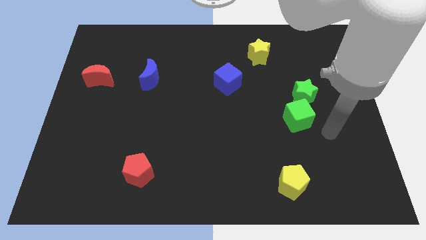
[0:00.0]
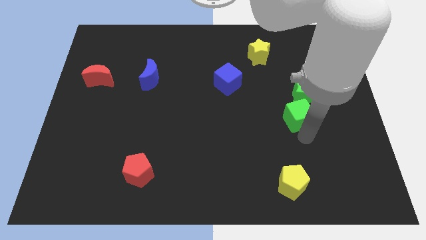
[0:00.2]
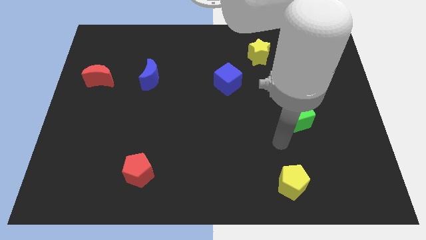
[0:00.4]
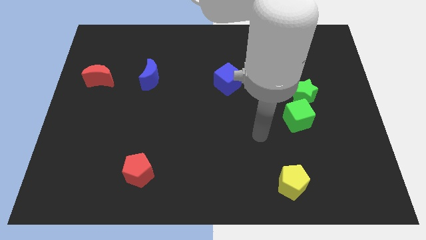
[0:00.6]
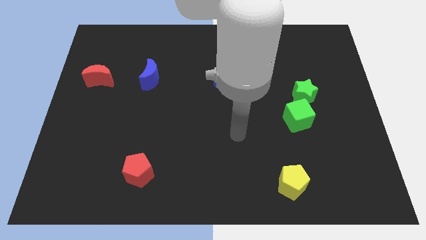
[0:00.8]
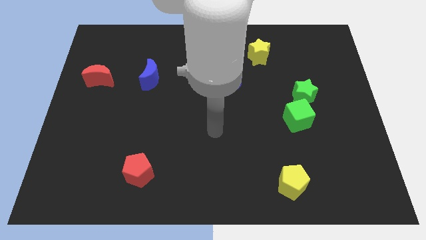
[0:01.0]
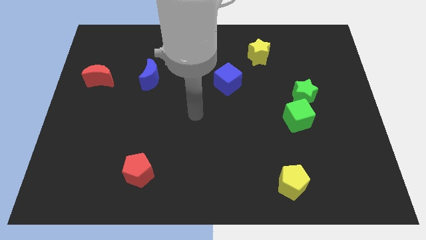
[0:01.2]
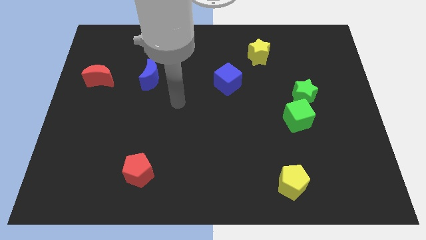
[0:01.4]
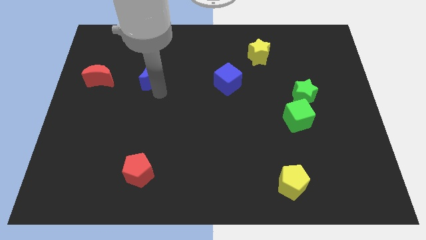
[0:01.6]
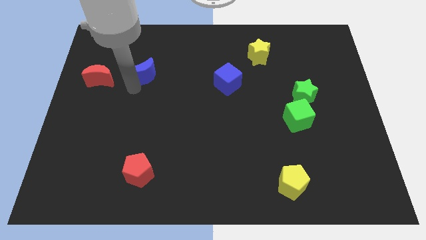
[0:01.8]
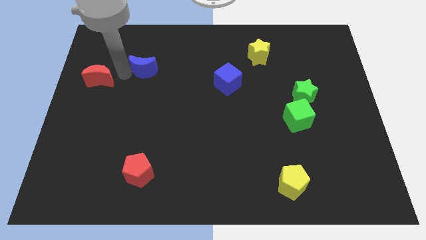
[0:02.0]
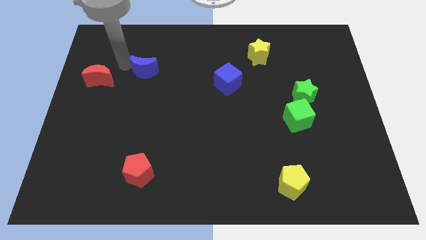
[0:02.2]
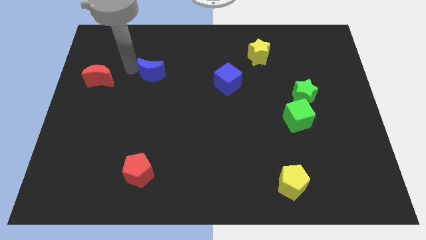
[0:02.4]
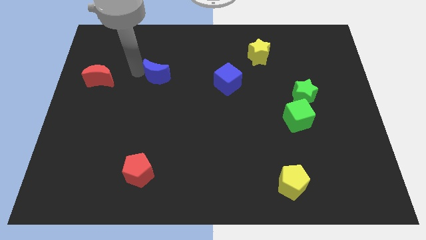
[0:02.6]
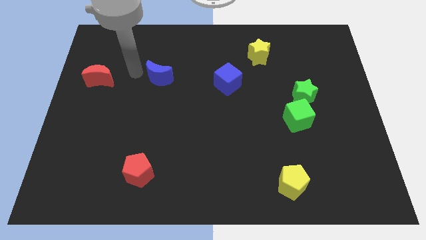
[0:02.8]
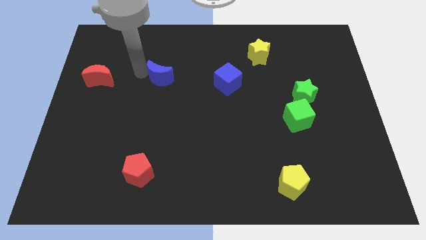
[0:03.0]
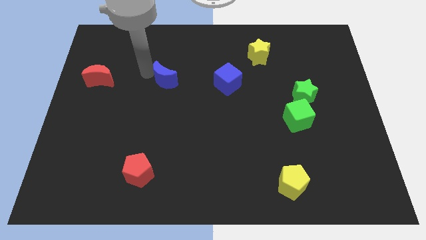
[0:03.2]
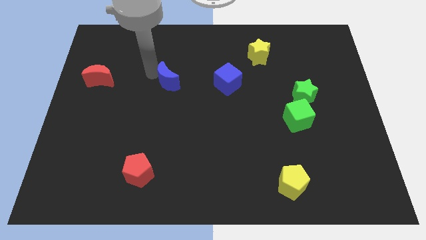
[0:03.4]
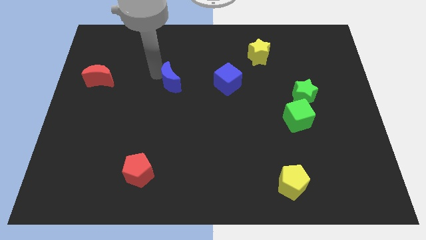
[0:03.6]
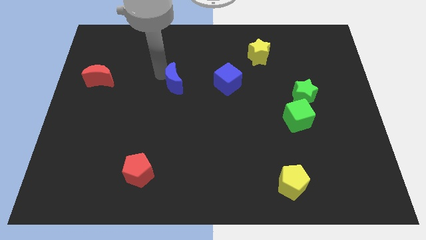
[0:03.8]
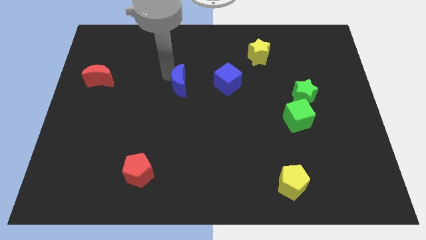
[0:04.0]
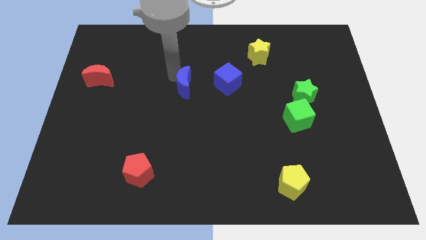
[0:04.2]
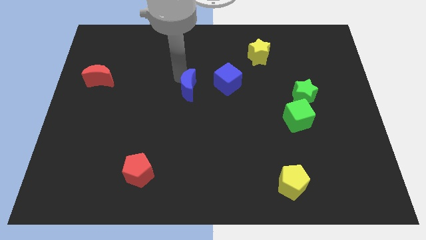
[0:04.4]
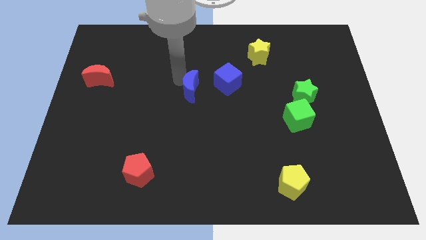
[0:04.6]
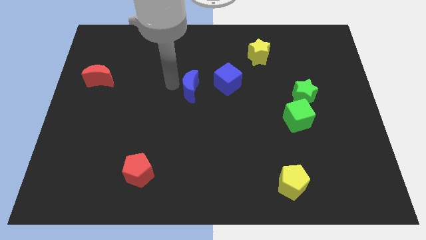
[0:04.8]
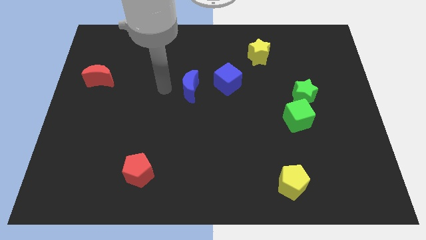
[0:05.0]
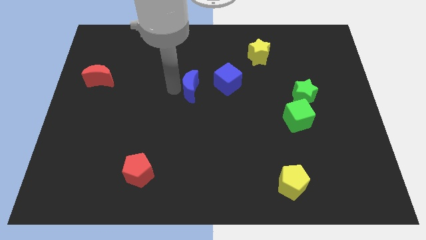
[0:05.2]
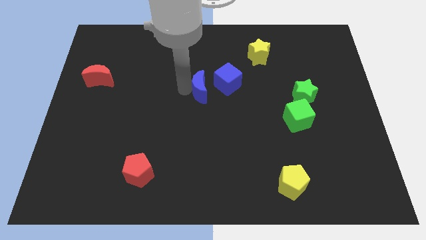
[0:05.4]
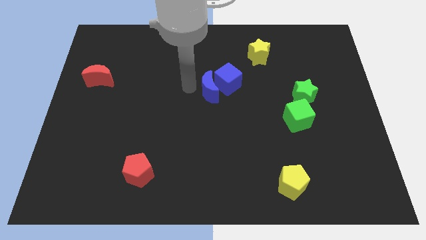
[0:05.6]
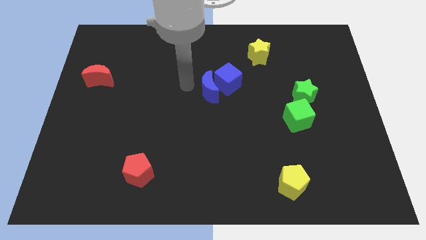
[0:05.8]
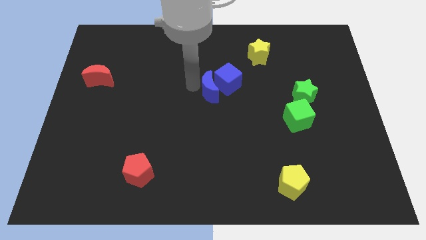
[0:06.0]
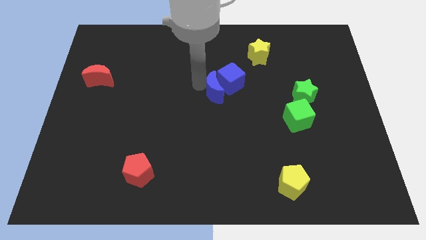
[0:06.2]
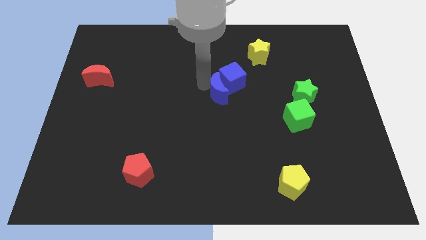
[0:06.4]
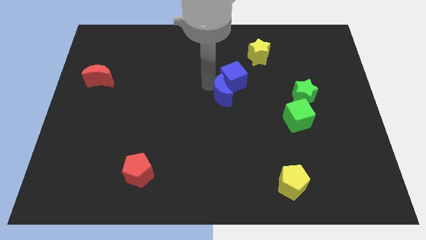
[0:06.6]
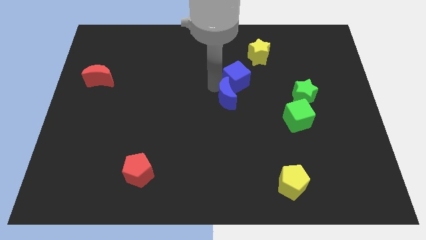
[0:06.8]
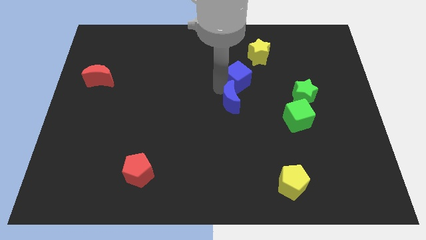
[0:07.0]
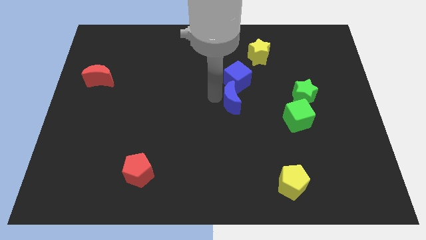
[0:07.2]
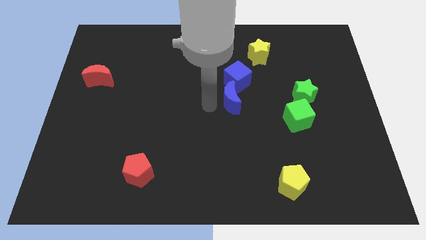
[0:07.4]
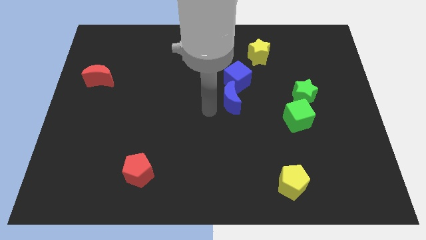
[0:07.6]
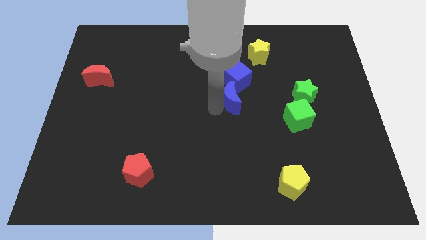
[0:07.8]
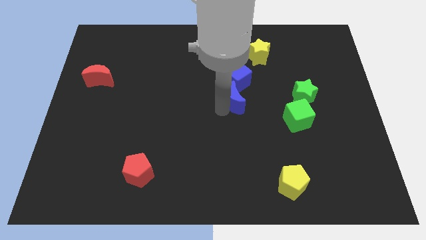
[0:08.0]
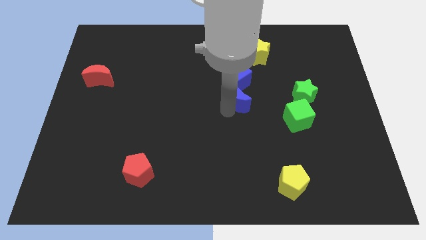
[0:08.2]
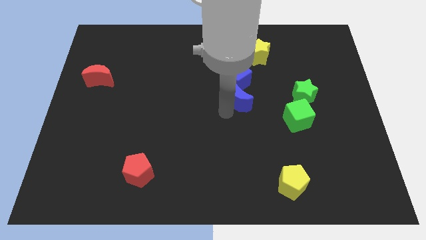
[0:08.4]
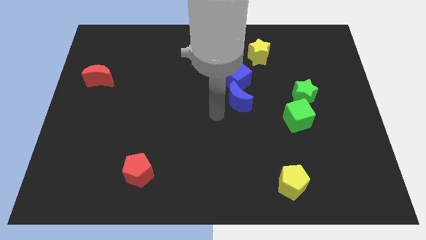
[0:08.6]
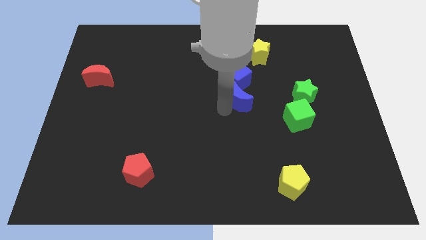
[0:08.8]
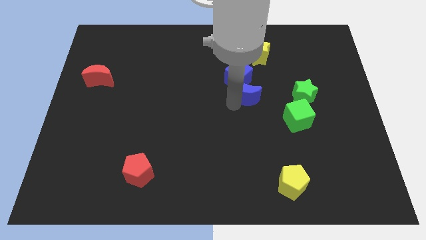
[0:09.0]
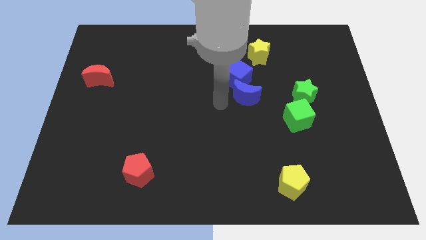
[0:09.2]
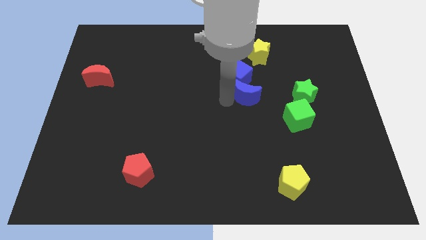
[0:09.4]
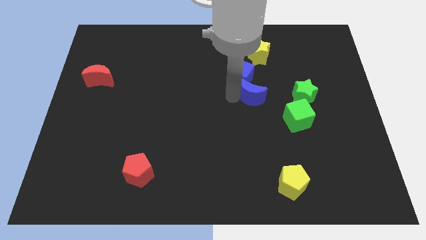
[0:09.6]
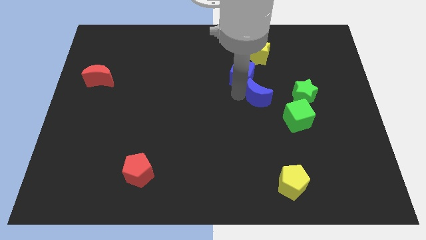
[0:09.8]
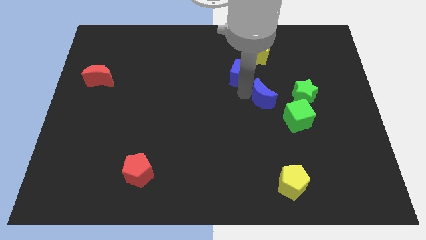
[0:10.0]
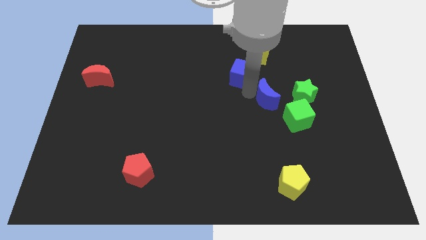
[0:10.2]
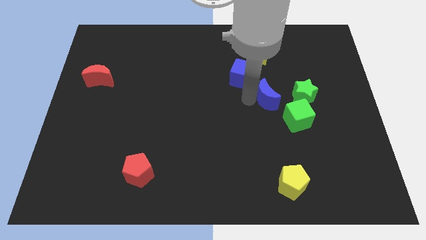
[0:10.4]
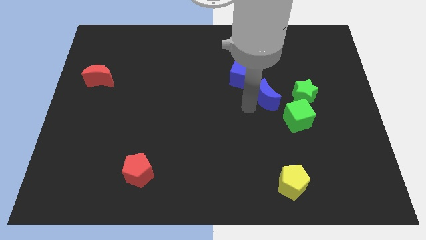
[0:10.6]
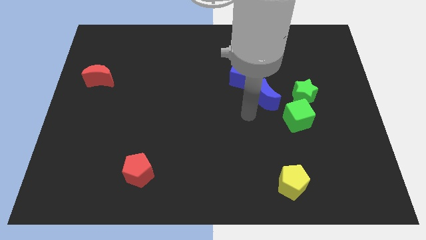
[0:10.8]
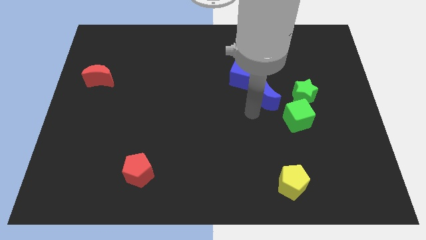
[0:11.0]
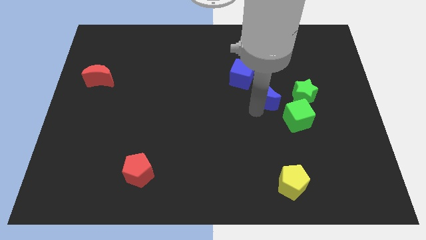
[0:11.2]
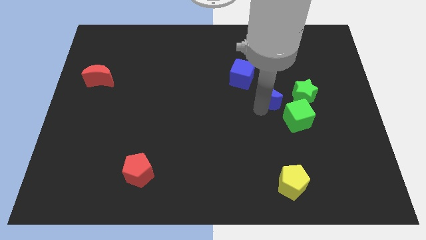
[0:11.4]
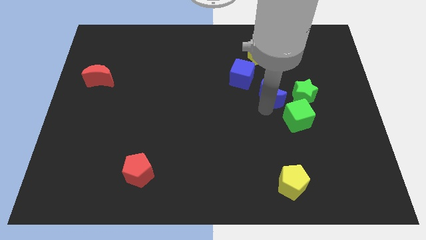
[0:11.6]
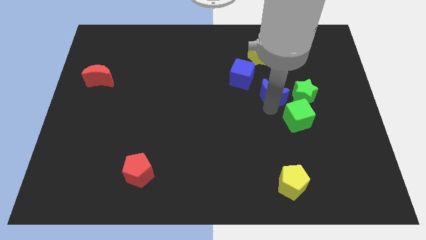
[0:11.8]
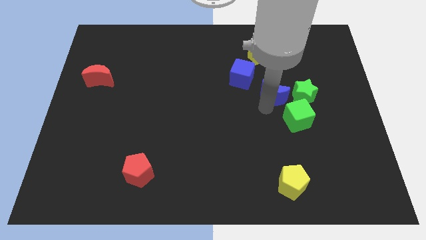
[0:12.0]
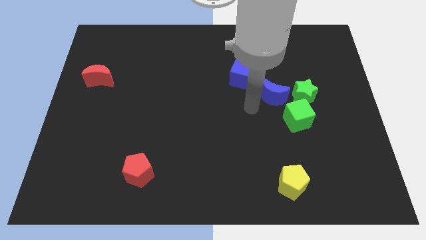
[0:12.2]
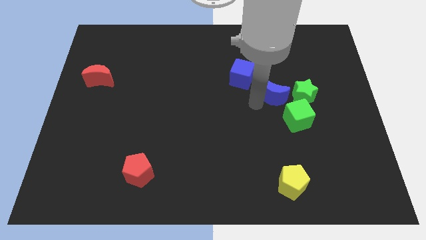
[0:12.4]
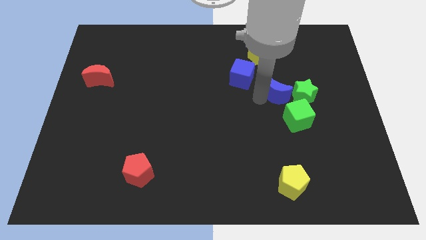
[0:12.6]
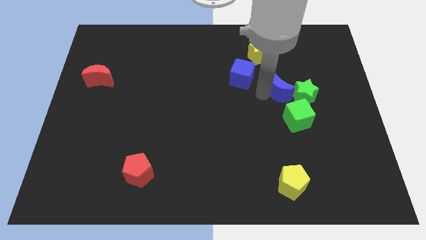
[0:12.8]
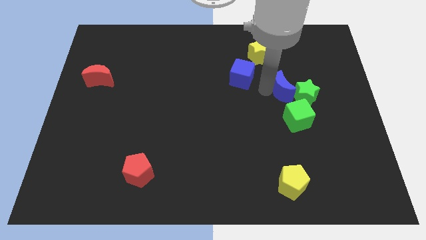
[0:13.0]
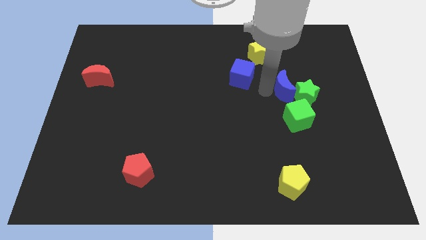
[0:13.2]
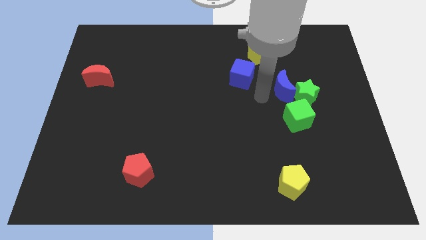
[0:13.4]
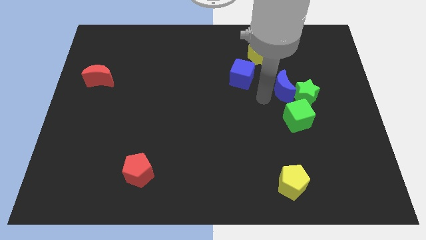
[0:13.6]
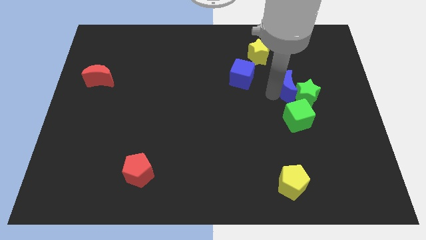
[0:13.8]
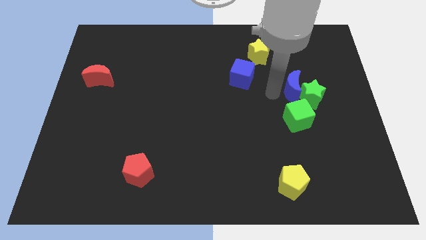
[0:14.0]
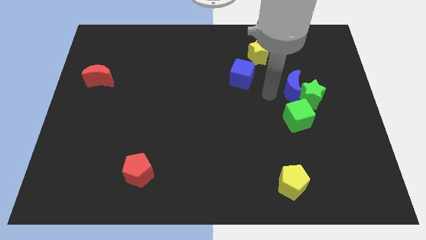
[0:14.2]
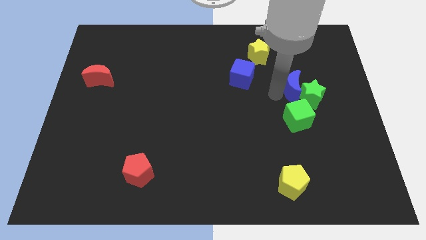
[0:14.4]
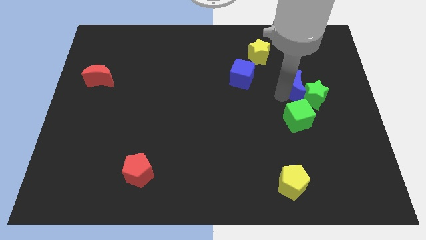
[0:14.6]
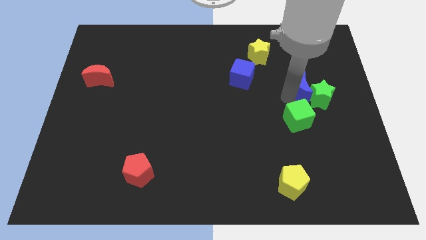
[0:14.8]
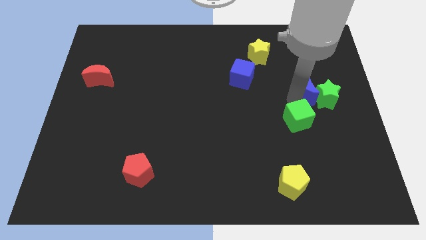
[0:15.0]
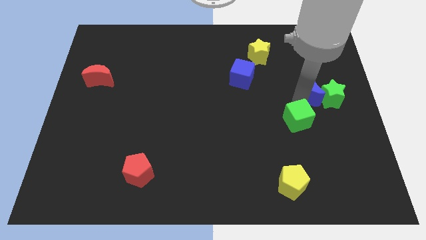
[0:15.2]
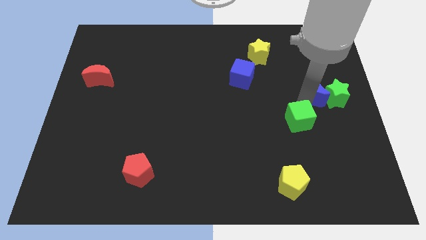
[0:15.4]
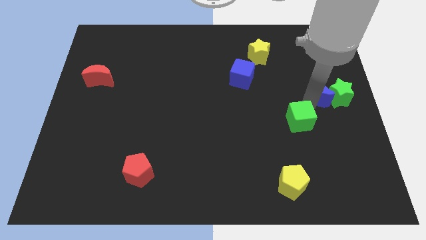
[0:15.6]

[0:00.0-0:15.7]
move the blue moon to the right side
